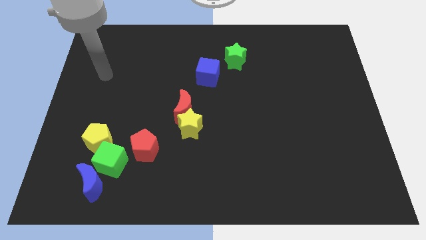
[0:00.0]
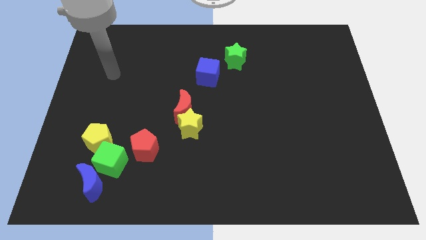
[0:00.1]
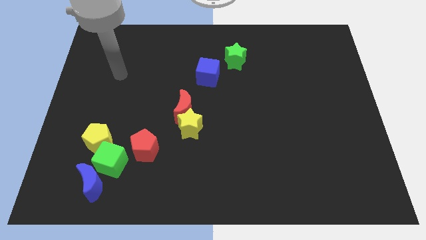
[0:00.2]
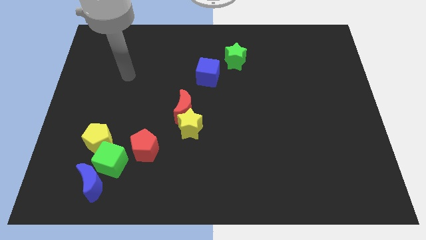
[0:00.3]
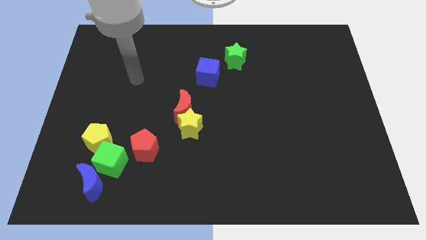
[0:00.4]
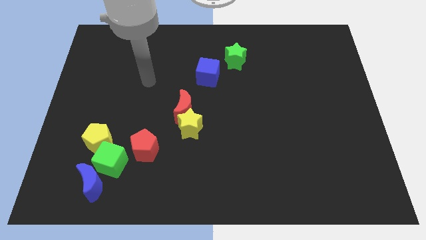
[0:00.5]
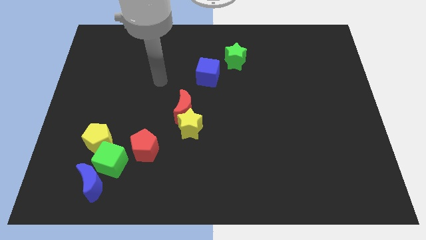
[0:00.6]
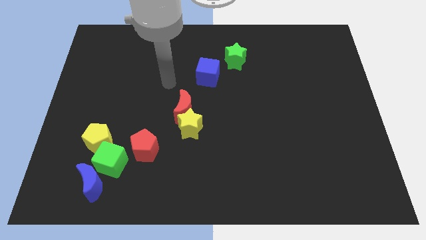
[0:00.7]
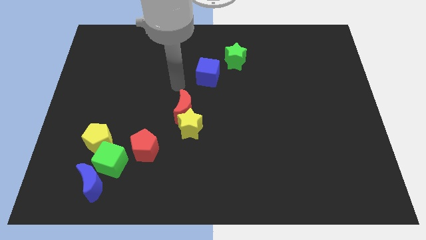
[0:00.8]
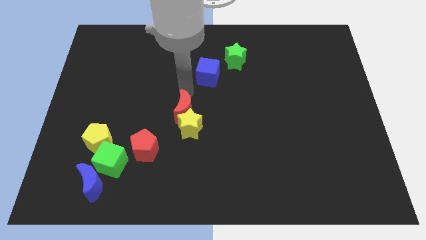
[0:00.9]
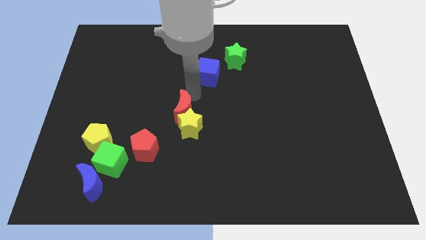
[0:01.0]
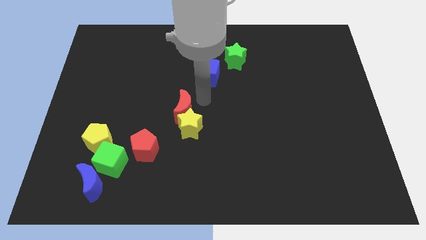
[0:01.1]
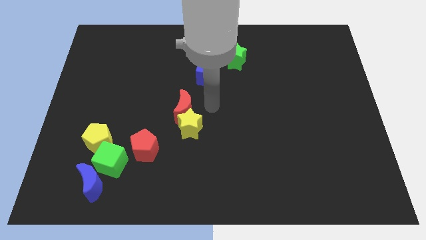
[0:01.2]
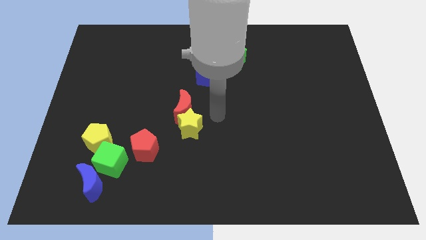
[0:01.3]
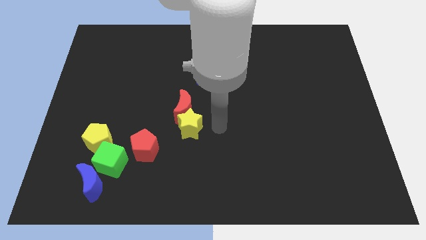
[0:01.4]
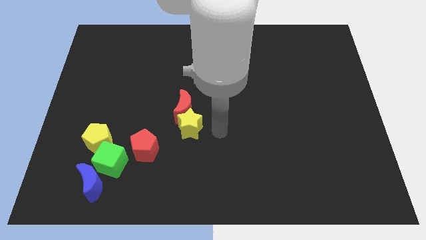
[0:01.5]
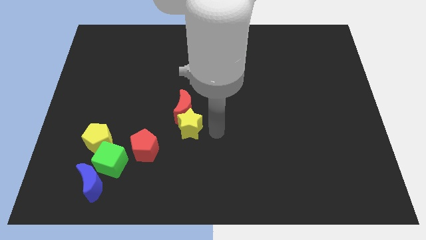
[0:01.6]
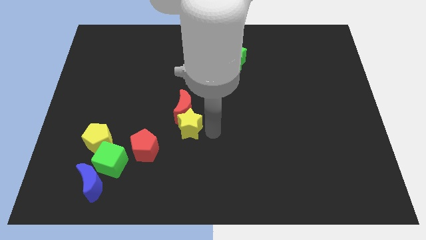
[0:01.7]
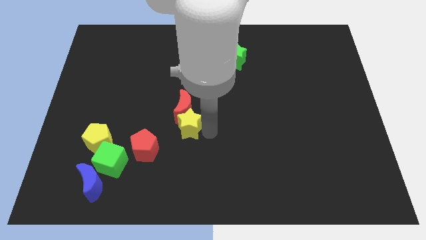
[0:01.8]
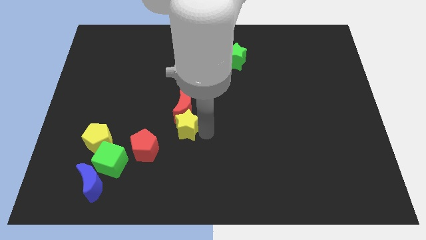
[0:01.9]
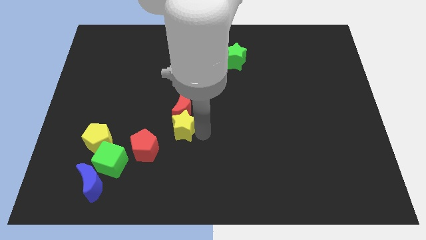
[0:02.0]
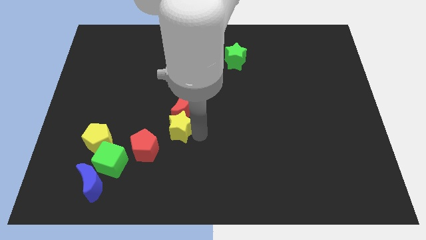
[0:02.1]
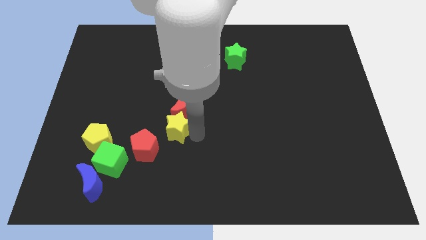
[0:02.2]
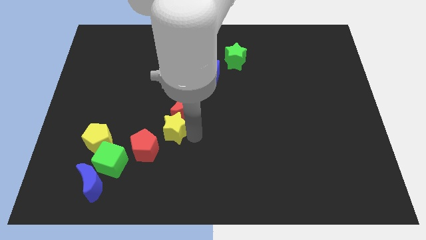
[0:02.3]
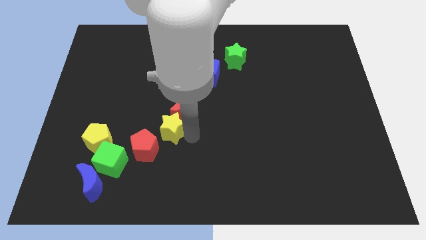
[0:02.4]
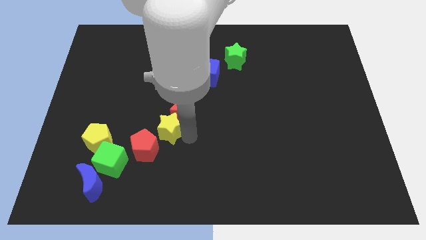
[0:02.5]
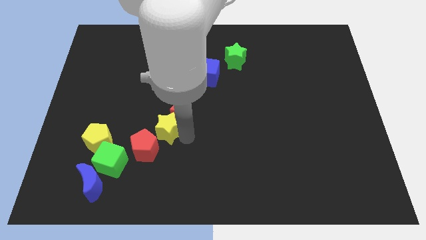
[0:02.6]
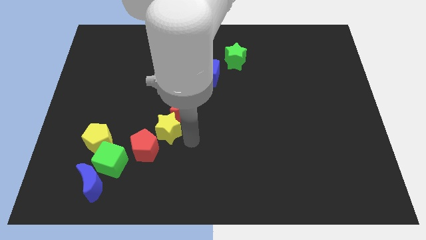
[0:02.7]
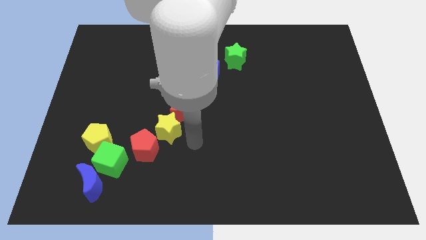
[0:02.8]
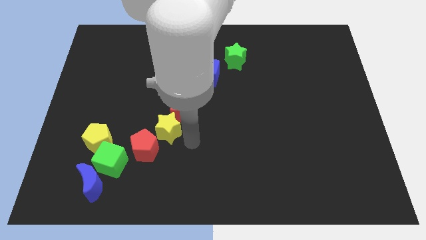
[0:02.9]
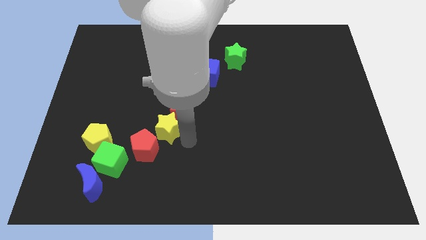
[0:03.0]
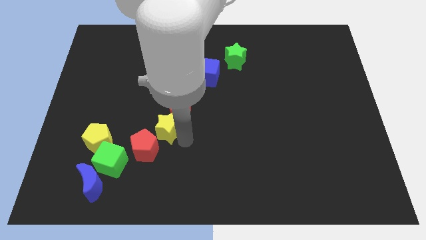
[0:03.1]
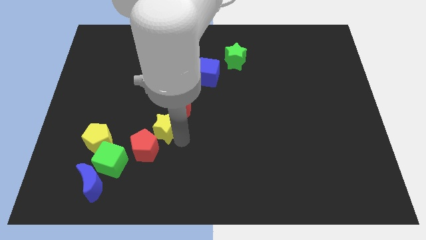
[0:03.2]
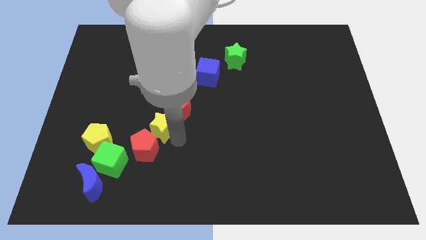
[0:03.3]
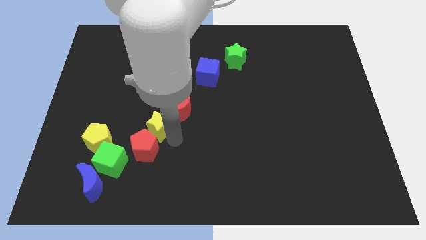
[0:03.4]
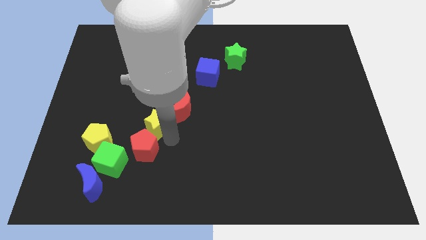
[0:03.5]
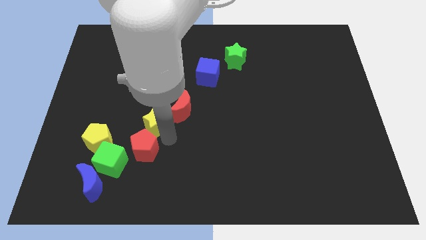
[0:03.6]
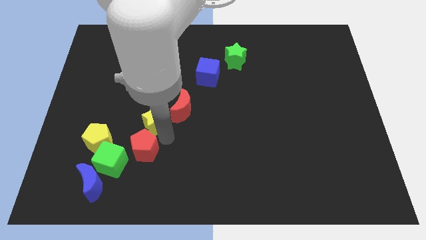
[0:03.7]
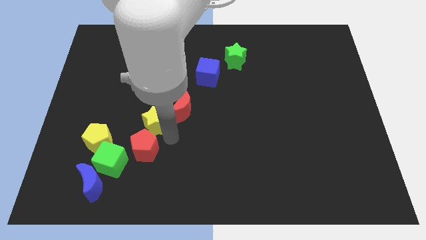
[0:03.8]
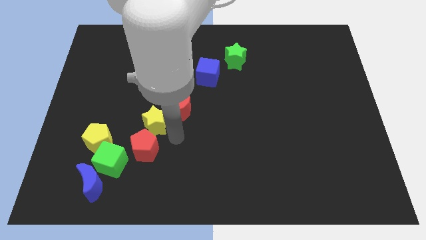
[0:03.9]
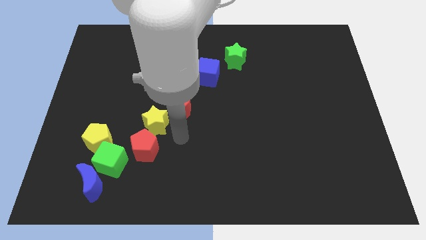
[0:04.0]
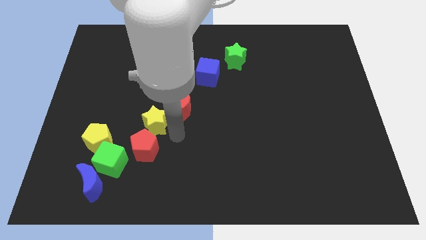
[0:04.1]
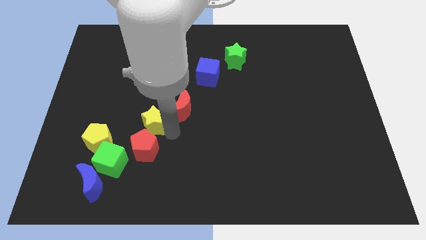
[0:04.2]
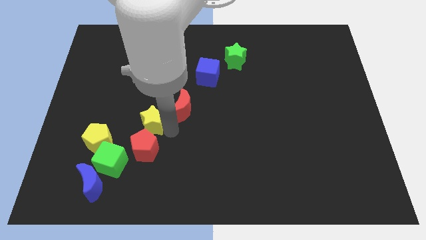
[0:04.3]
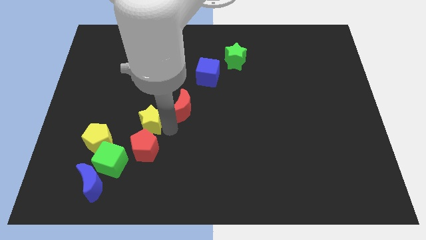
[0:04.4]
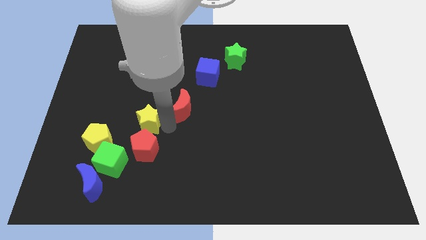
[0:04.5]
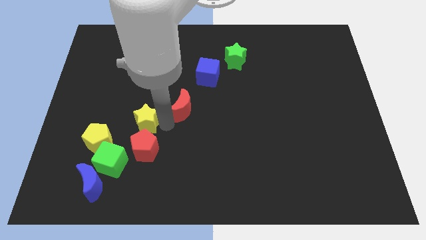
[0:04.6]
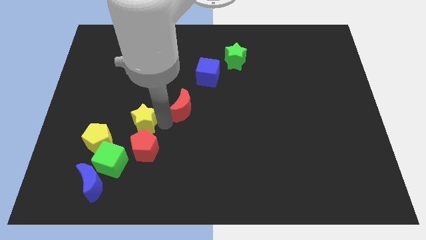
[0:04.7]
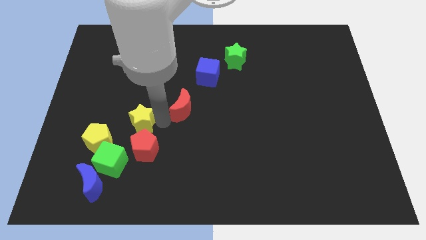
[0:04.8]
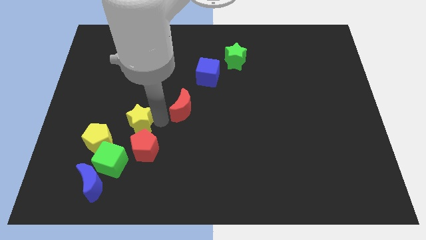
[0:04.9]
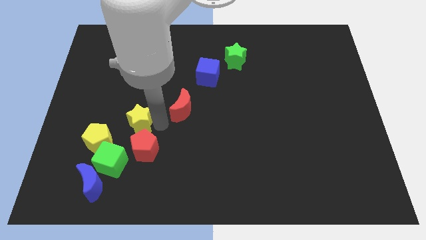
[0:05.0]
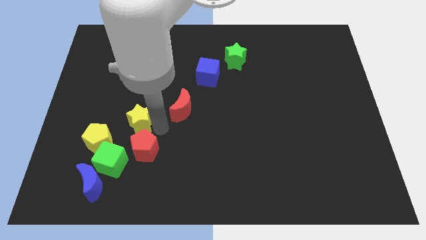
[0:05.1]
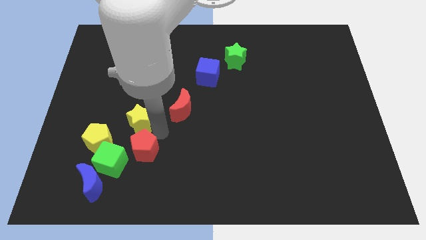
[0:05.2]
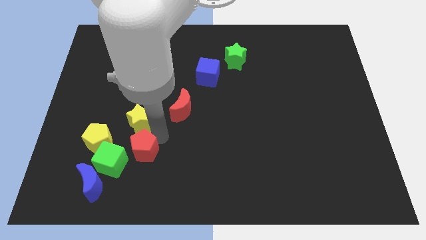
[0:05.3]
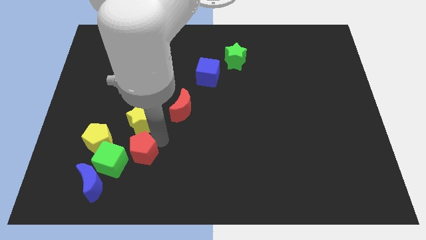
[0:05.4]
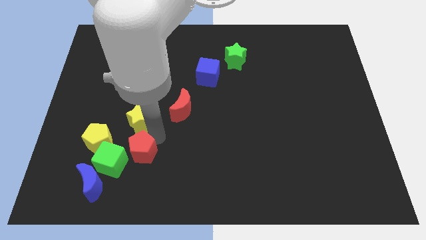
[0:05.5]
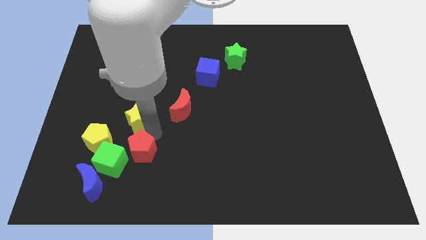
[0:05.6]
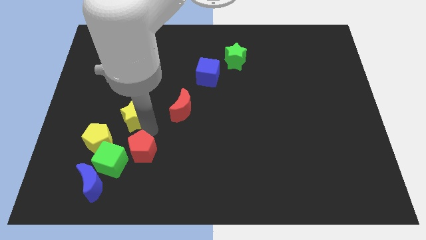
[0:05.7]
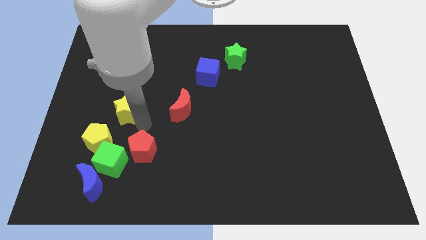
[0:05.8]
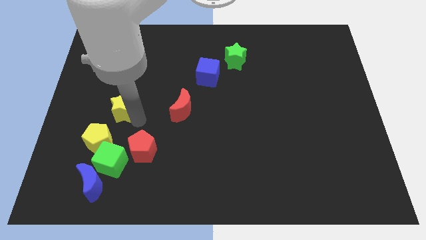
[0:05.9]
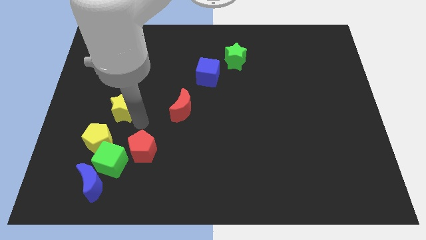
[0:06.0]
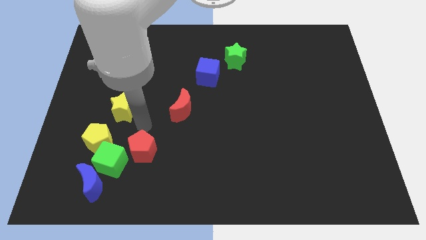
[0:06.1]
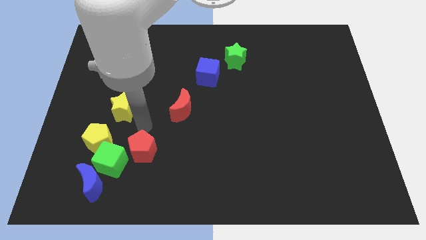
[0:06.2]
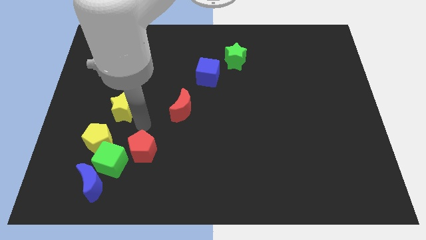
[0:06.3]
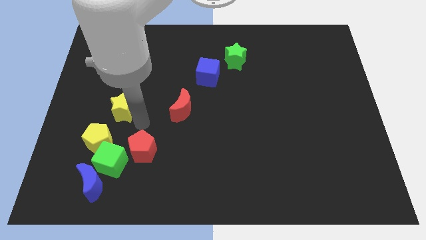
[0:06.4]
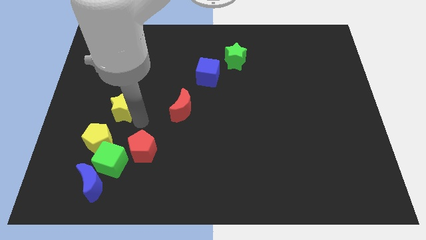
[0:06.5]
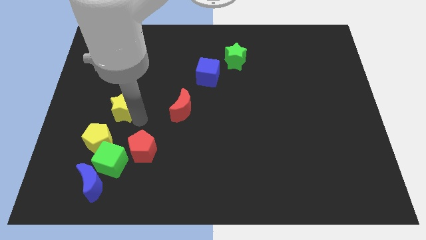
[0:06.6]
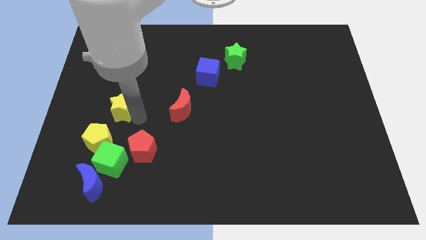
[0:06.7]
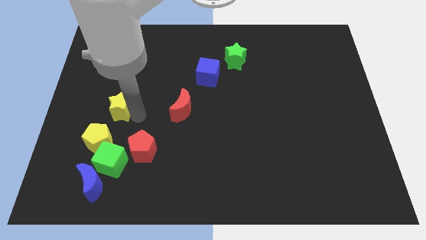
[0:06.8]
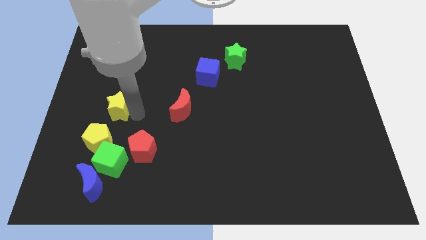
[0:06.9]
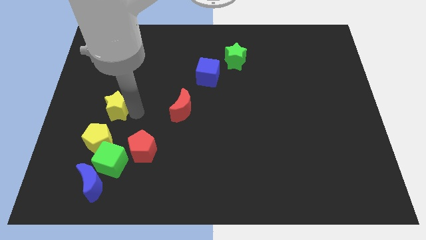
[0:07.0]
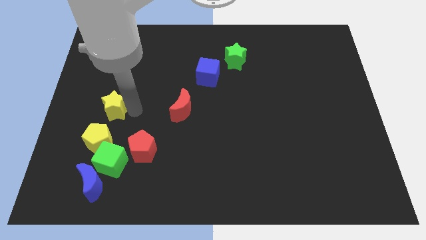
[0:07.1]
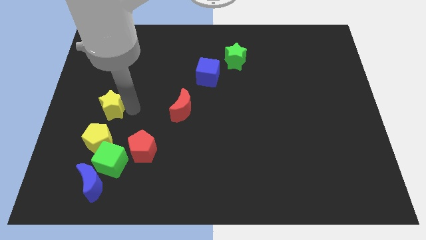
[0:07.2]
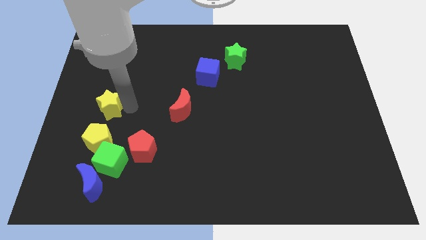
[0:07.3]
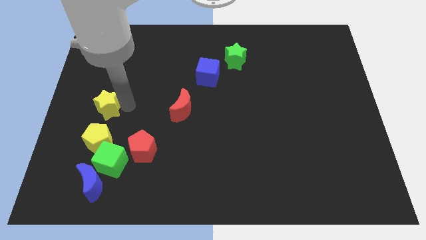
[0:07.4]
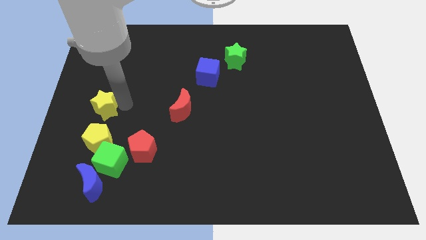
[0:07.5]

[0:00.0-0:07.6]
move the yellow star to the left side of the board
